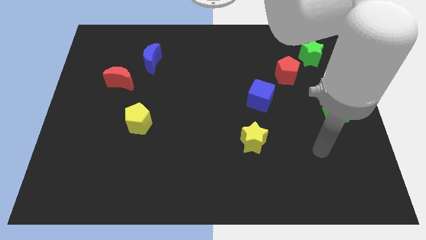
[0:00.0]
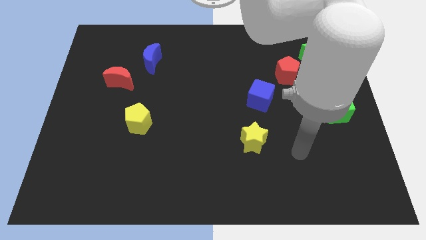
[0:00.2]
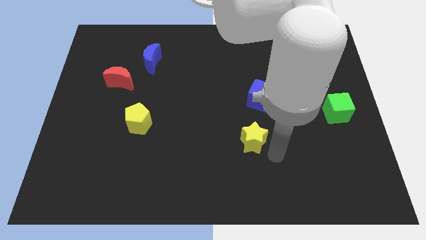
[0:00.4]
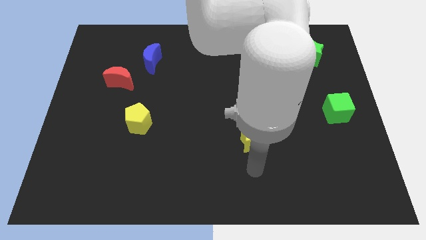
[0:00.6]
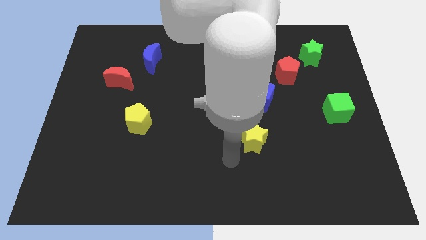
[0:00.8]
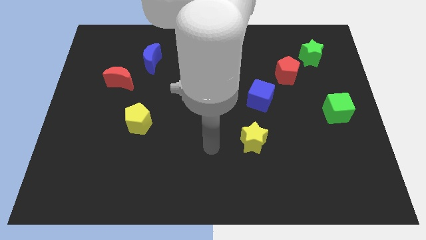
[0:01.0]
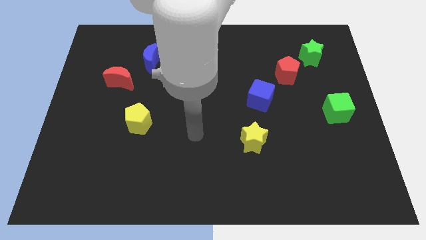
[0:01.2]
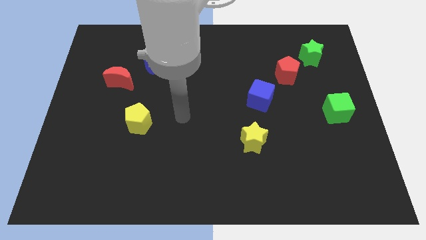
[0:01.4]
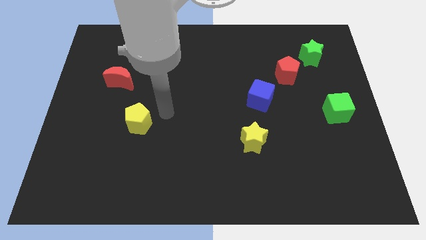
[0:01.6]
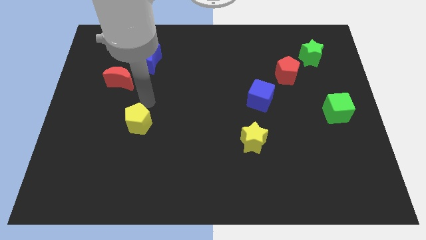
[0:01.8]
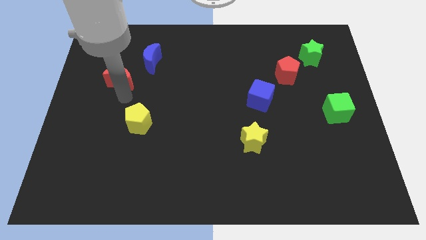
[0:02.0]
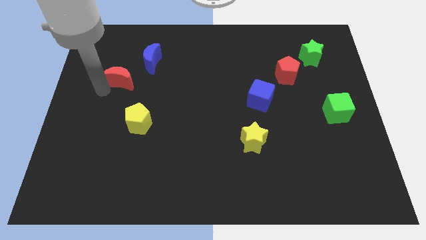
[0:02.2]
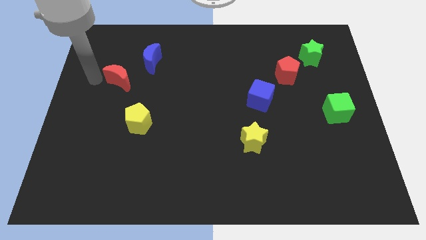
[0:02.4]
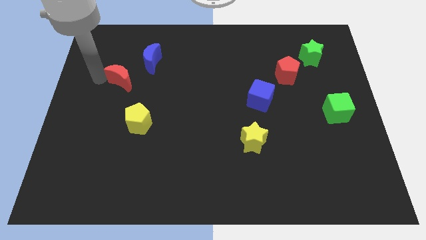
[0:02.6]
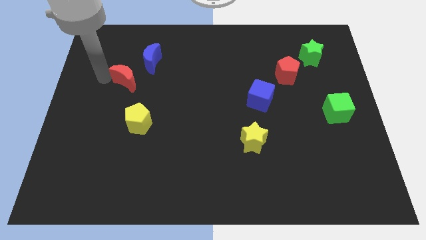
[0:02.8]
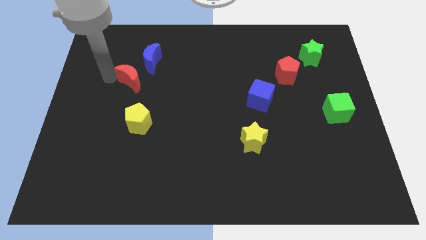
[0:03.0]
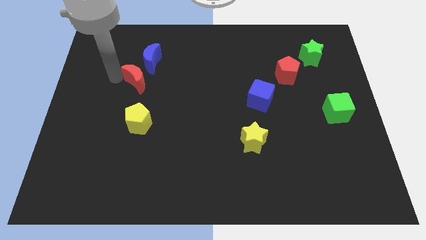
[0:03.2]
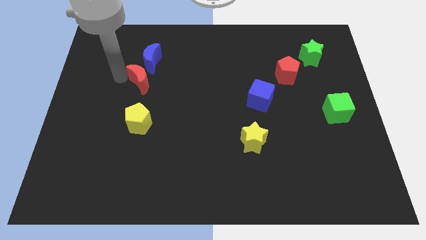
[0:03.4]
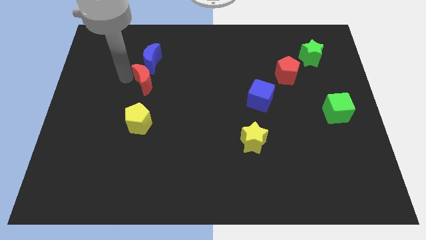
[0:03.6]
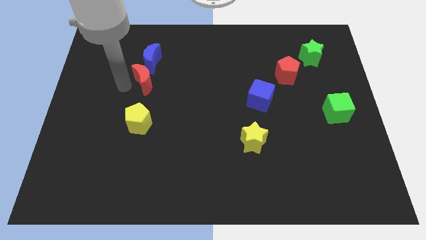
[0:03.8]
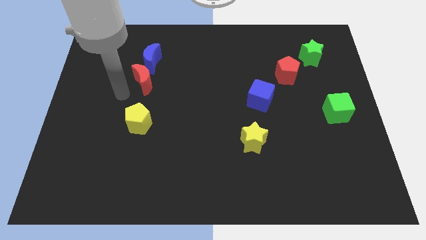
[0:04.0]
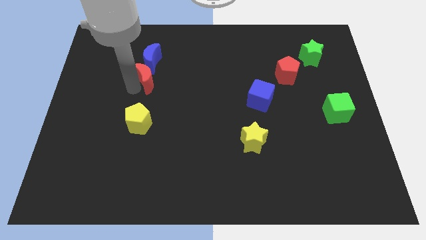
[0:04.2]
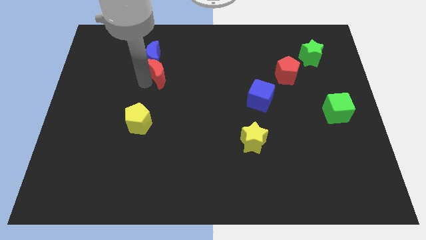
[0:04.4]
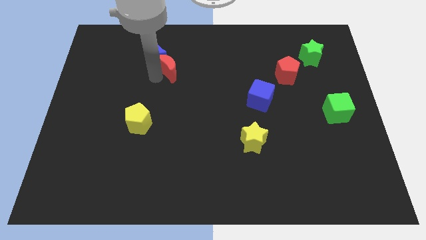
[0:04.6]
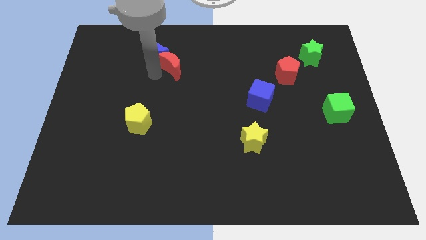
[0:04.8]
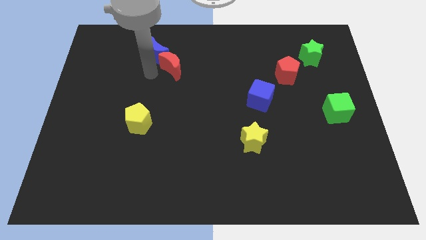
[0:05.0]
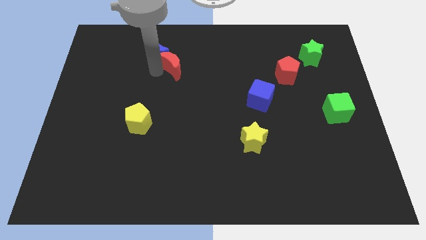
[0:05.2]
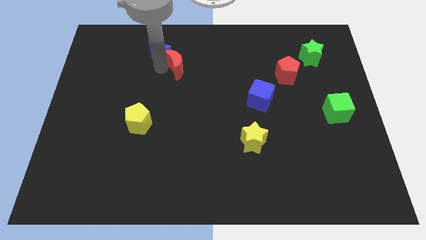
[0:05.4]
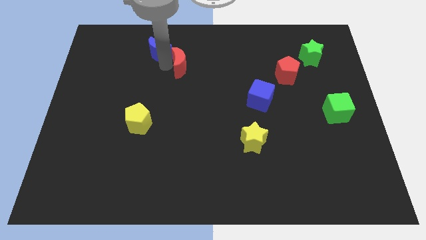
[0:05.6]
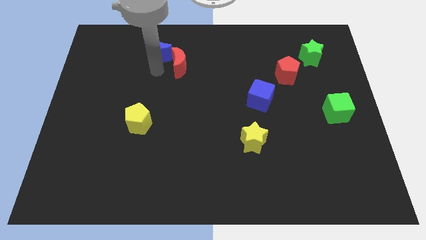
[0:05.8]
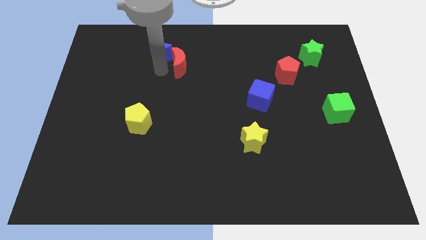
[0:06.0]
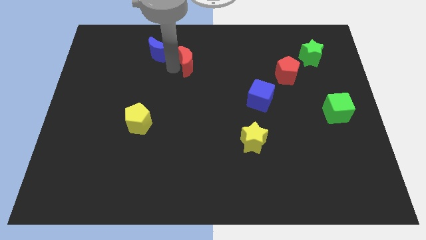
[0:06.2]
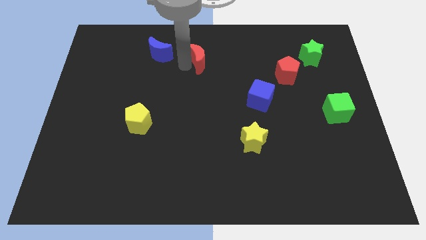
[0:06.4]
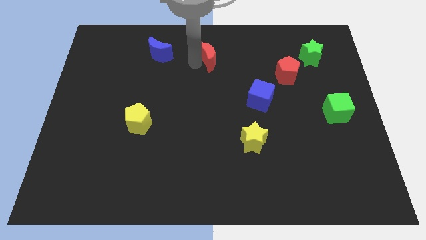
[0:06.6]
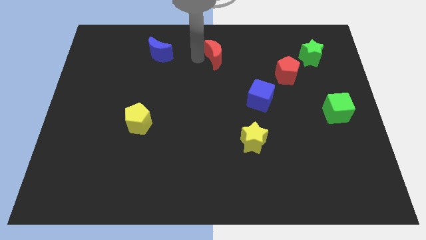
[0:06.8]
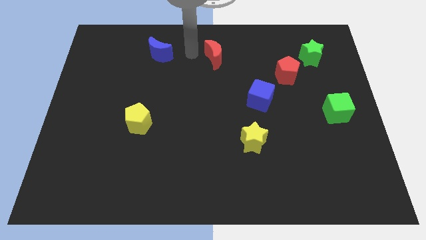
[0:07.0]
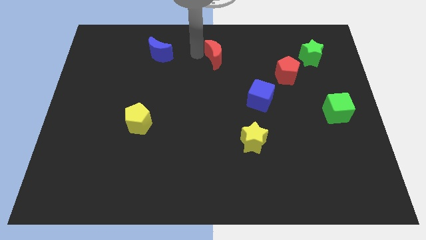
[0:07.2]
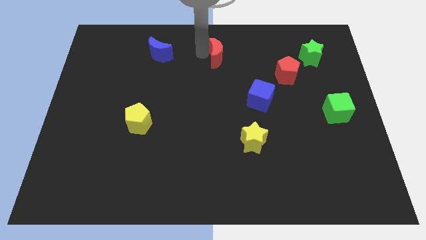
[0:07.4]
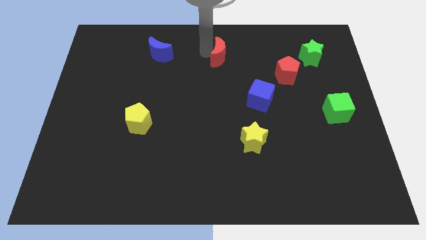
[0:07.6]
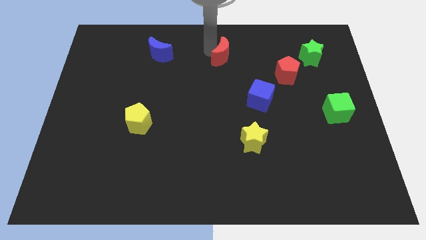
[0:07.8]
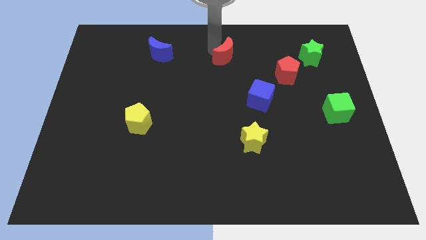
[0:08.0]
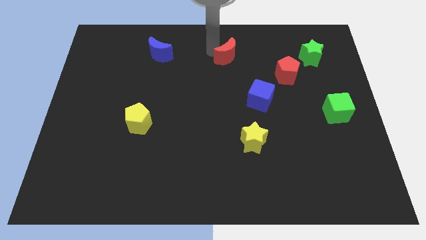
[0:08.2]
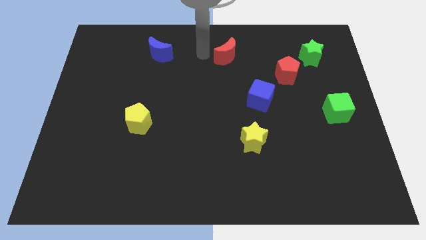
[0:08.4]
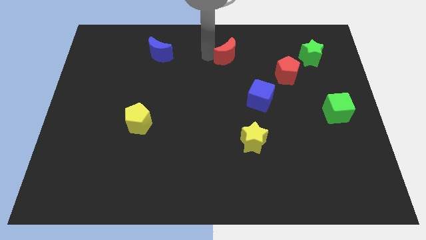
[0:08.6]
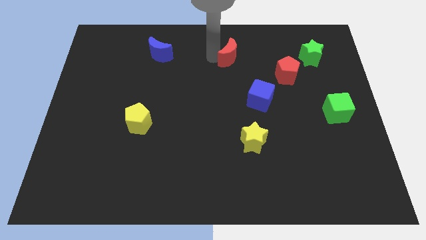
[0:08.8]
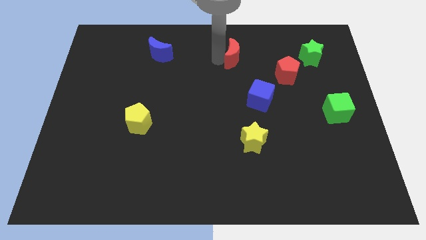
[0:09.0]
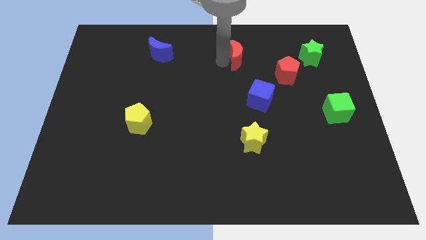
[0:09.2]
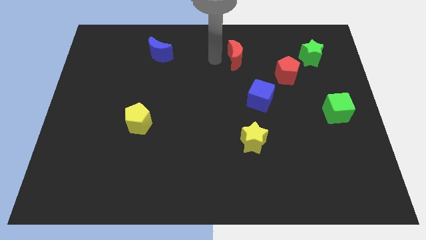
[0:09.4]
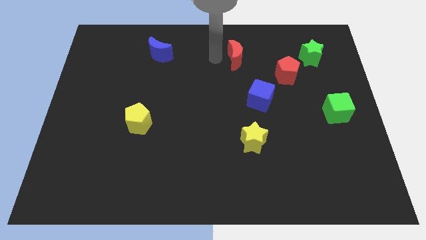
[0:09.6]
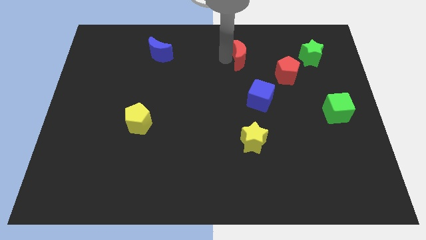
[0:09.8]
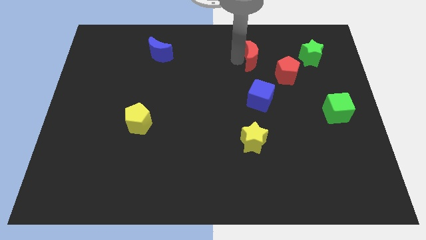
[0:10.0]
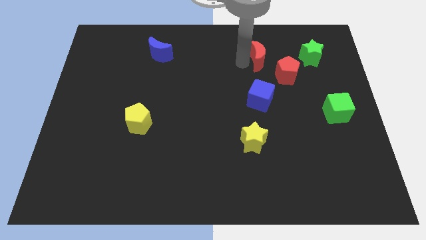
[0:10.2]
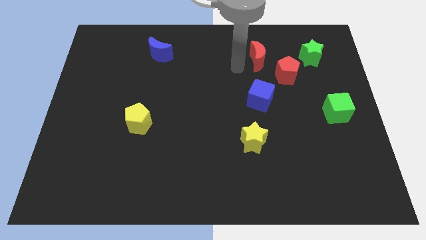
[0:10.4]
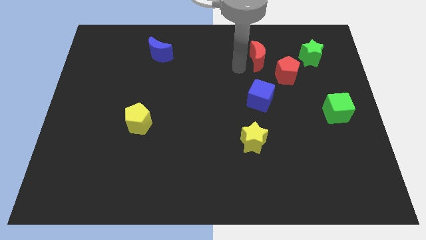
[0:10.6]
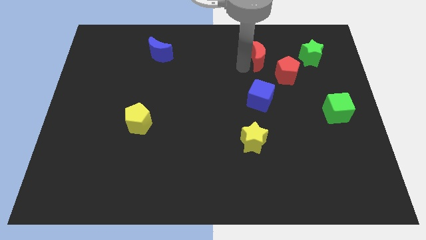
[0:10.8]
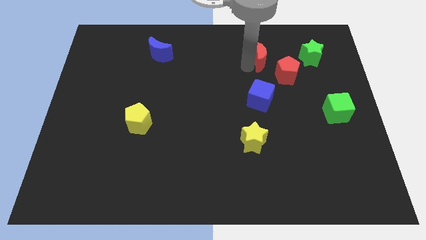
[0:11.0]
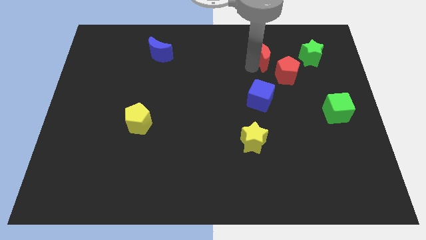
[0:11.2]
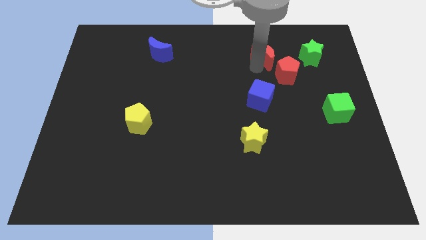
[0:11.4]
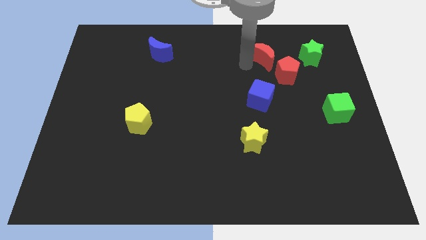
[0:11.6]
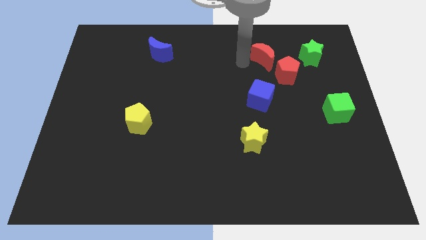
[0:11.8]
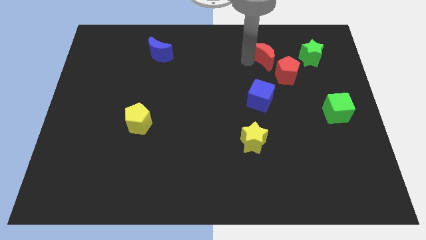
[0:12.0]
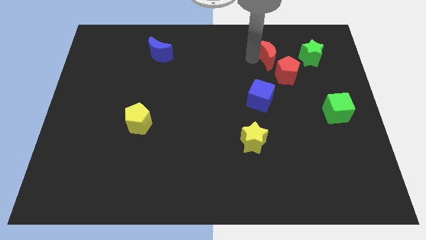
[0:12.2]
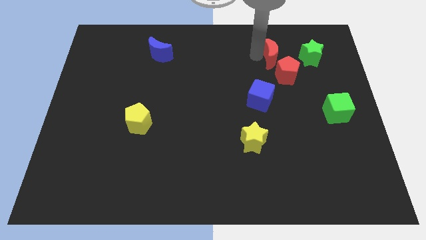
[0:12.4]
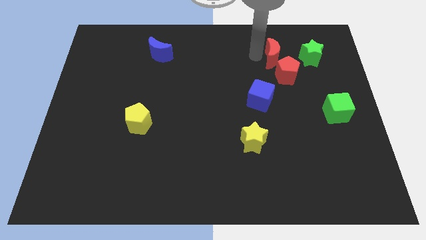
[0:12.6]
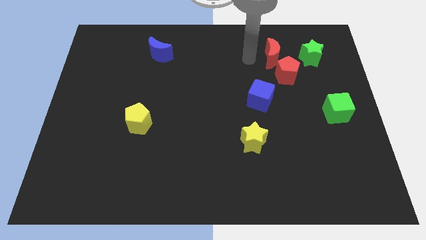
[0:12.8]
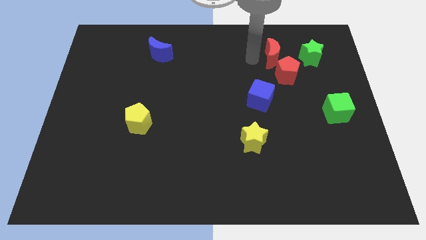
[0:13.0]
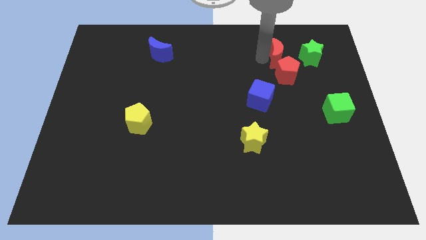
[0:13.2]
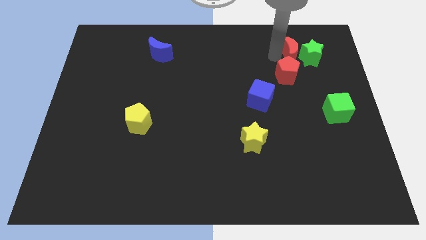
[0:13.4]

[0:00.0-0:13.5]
slide the red moon next to the green star
